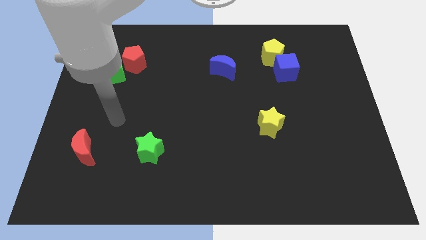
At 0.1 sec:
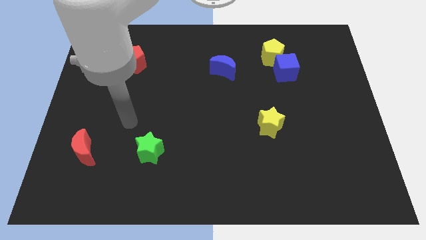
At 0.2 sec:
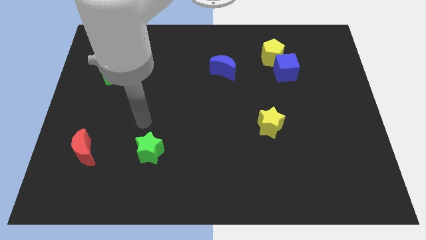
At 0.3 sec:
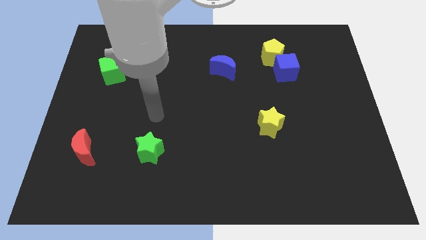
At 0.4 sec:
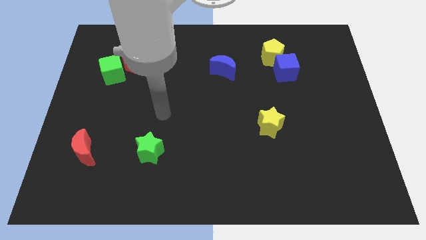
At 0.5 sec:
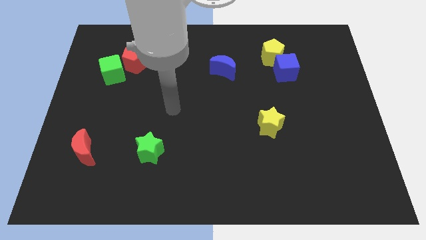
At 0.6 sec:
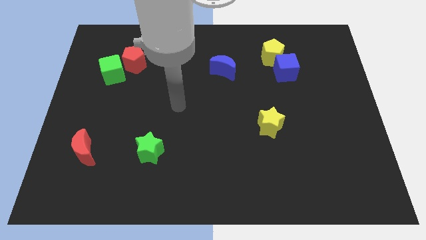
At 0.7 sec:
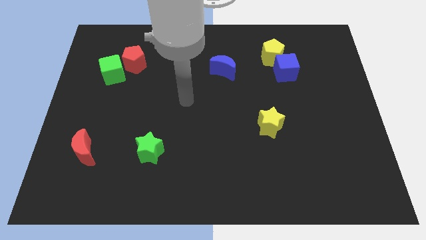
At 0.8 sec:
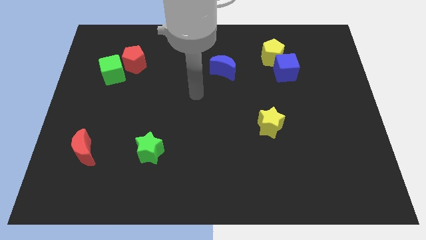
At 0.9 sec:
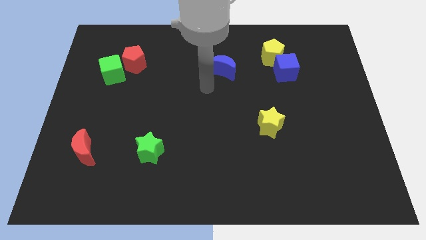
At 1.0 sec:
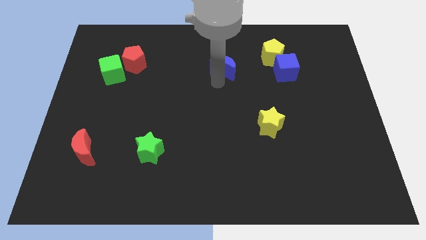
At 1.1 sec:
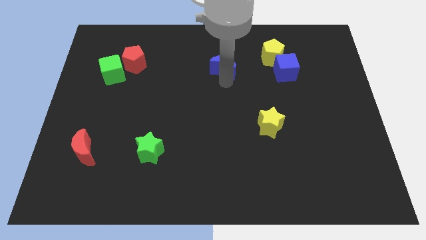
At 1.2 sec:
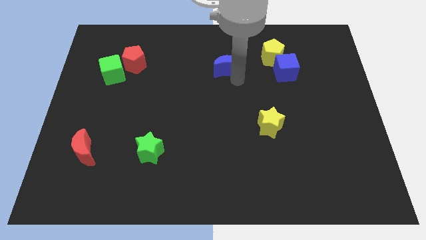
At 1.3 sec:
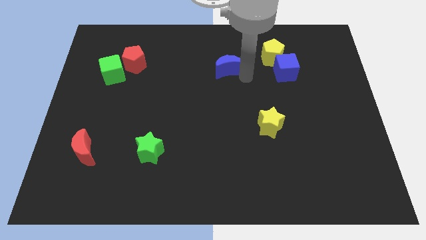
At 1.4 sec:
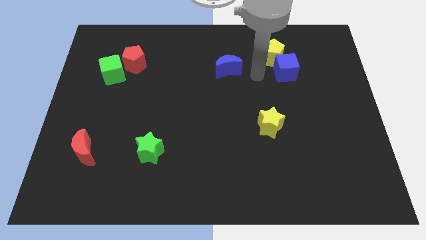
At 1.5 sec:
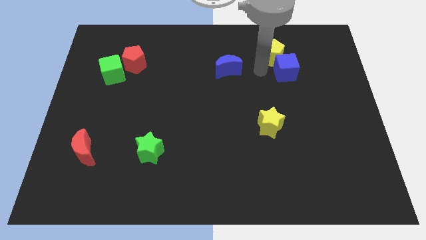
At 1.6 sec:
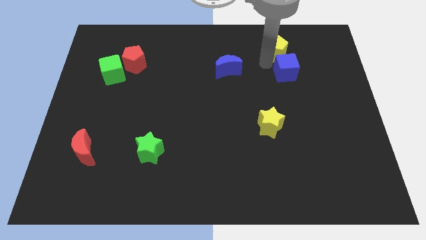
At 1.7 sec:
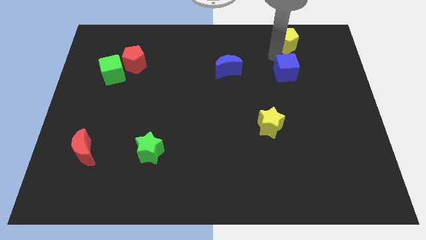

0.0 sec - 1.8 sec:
separate the blue cube from the yellow pentagon

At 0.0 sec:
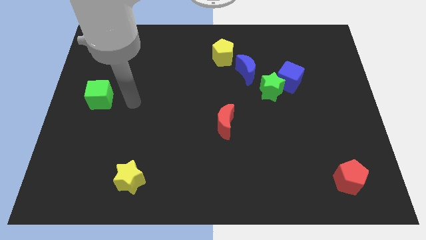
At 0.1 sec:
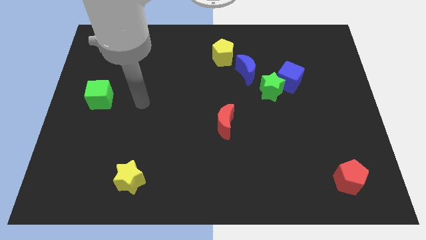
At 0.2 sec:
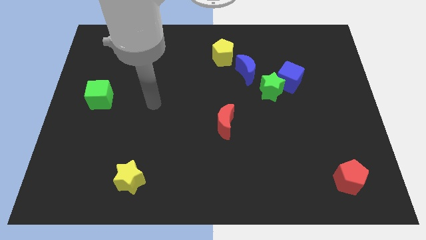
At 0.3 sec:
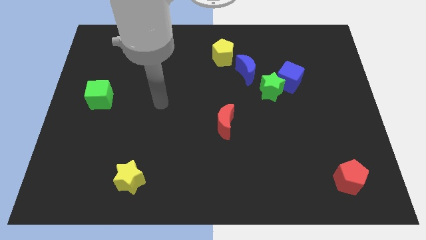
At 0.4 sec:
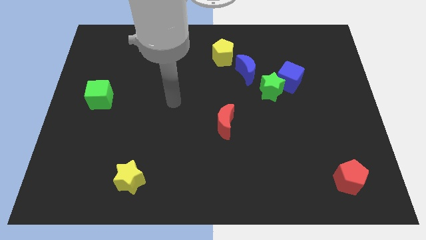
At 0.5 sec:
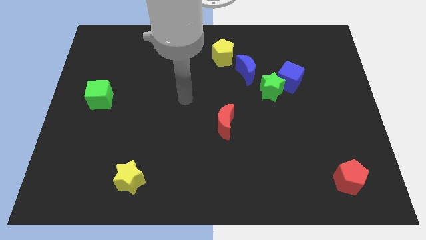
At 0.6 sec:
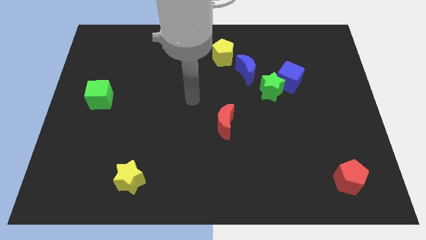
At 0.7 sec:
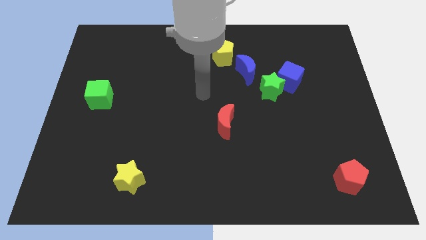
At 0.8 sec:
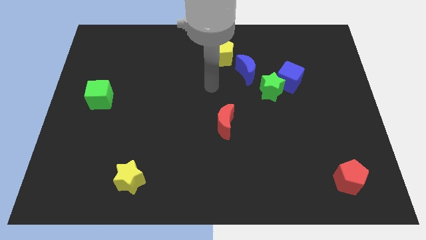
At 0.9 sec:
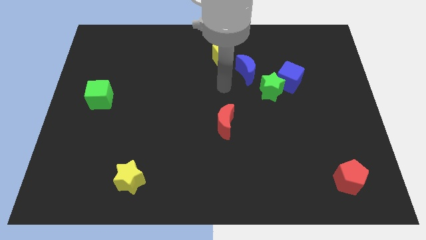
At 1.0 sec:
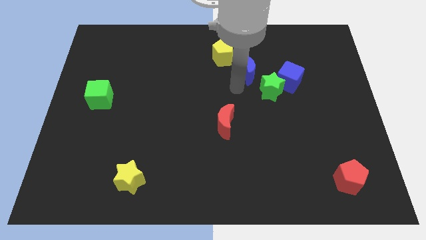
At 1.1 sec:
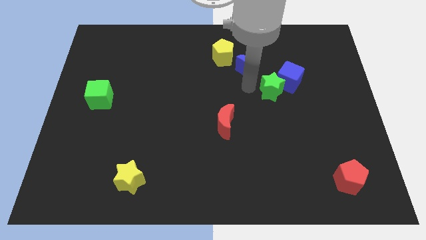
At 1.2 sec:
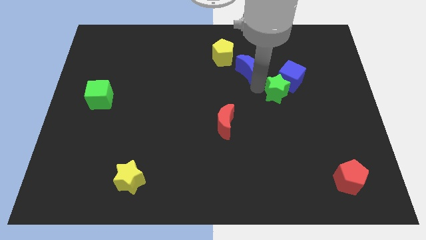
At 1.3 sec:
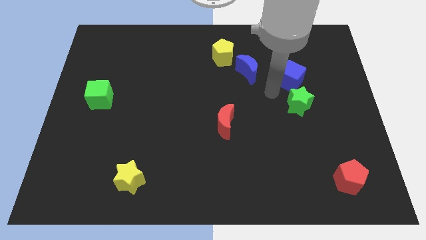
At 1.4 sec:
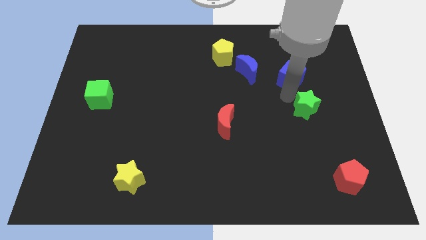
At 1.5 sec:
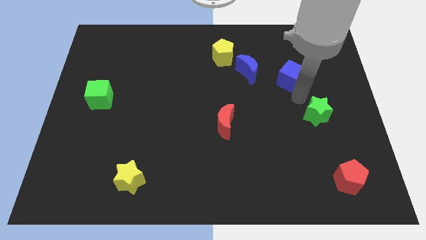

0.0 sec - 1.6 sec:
move the blue cube away from the green star

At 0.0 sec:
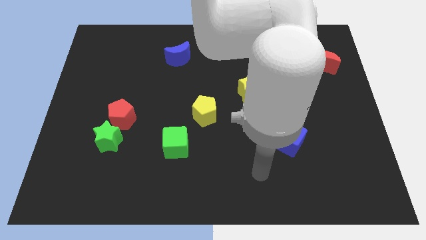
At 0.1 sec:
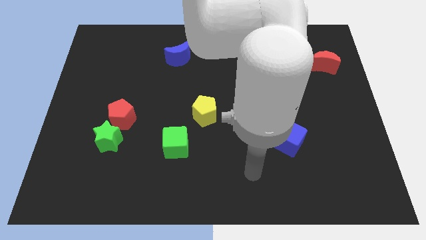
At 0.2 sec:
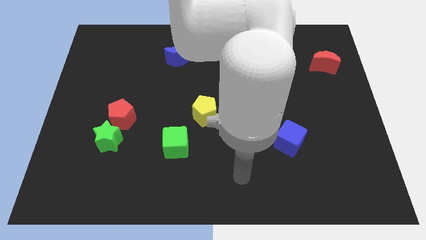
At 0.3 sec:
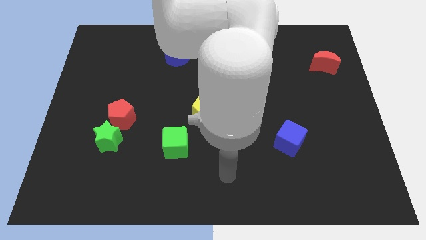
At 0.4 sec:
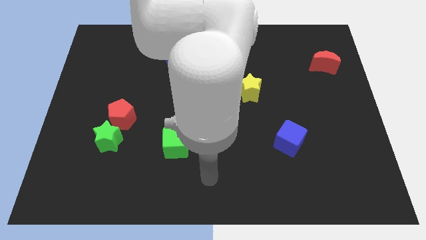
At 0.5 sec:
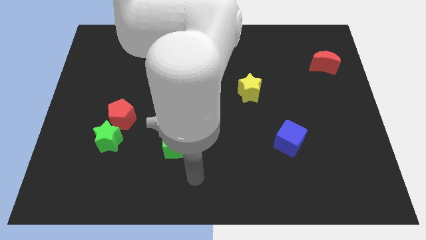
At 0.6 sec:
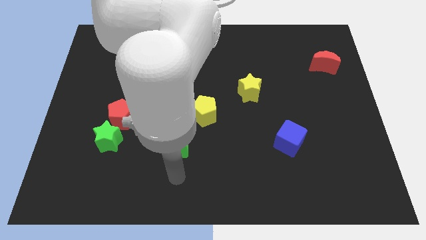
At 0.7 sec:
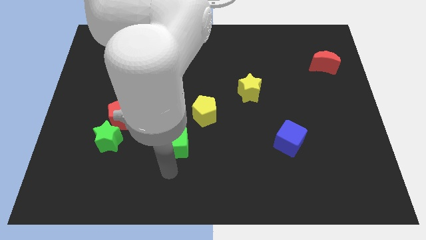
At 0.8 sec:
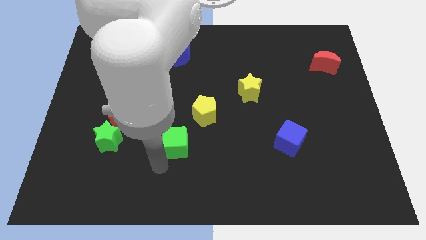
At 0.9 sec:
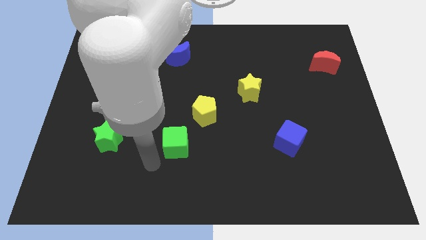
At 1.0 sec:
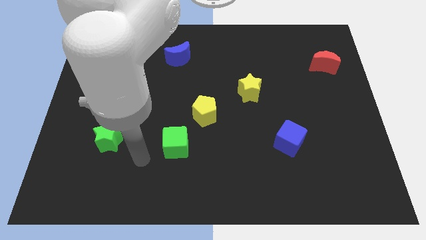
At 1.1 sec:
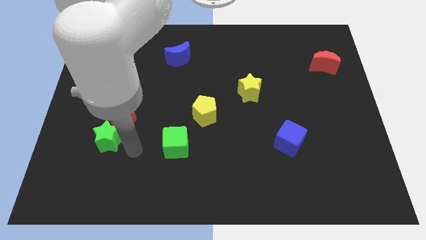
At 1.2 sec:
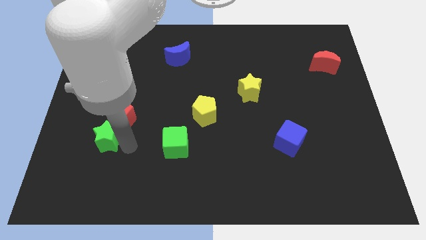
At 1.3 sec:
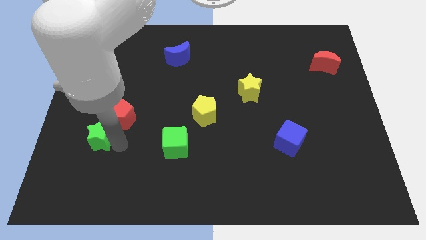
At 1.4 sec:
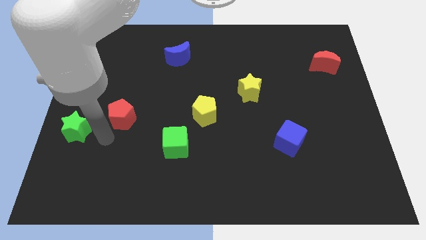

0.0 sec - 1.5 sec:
pull the red pentagon apart from the green star

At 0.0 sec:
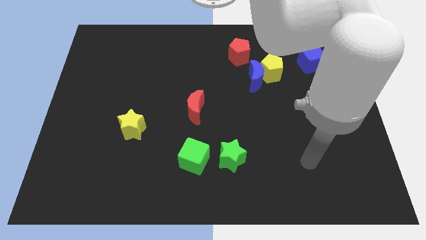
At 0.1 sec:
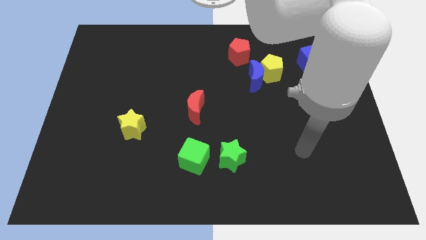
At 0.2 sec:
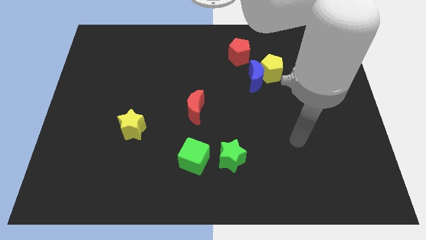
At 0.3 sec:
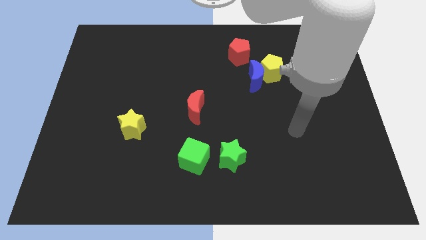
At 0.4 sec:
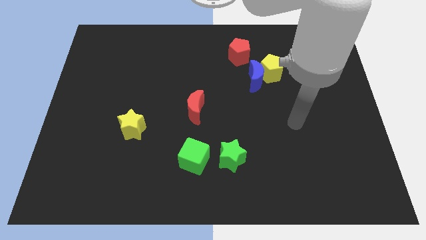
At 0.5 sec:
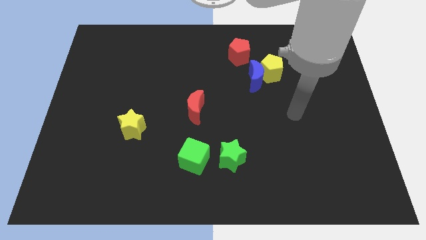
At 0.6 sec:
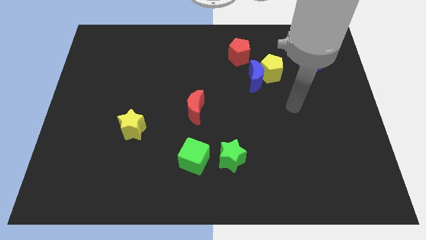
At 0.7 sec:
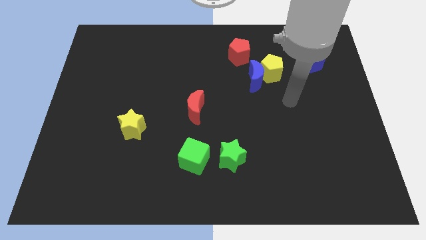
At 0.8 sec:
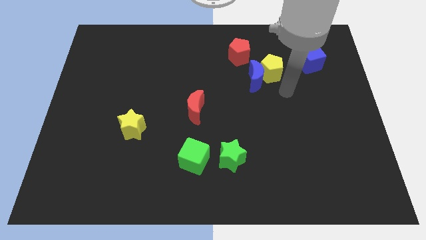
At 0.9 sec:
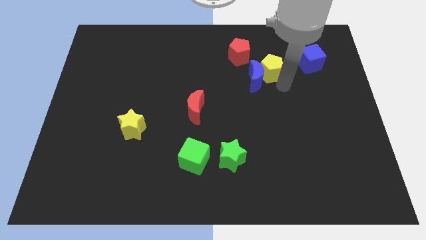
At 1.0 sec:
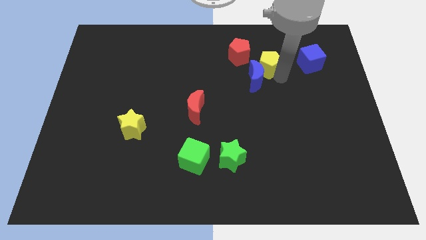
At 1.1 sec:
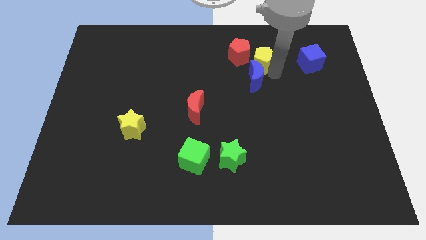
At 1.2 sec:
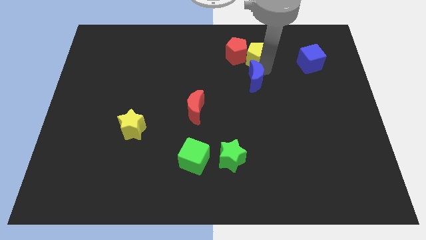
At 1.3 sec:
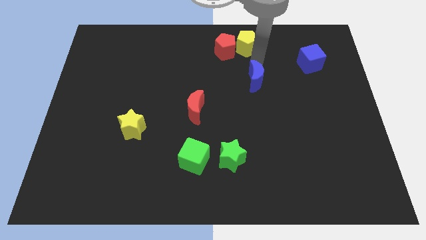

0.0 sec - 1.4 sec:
pull the blue moon apart from the yellow pentagon and red pentagon

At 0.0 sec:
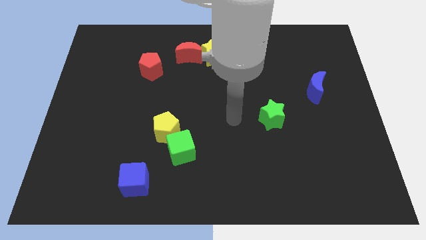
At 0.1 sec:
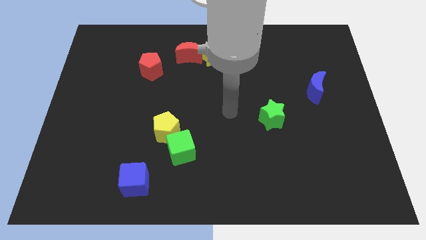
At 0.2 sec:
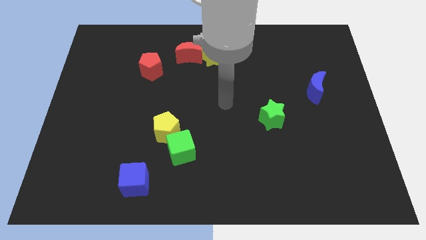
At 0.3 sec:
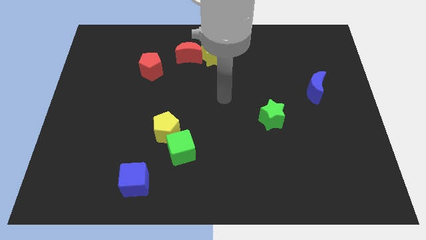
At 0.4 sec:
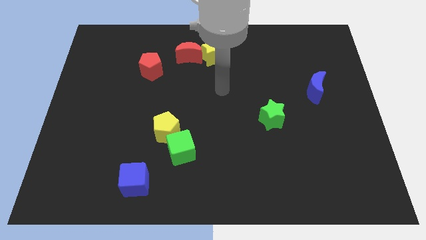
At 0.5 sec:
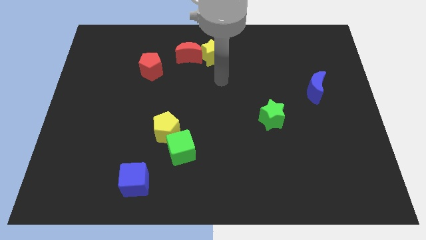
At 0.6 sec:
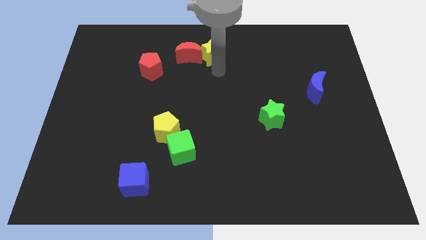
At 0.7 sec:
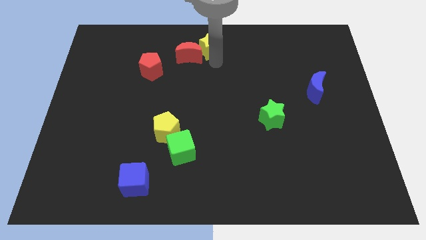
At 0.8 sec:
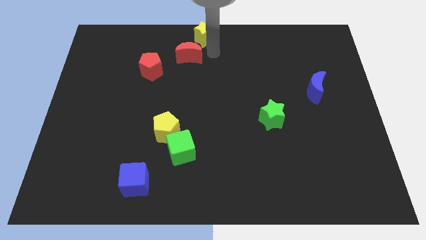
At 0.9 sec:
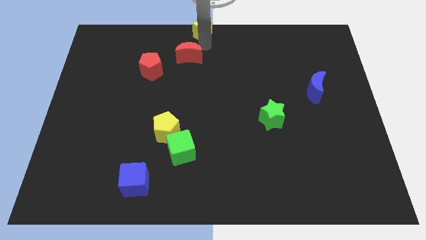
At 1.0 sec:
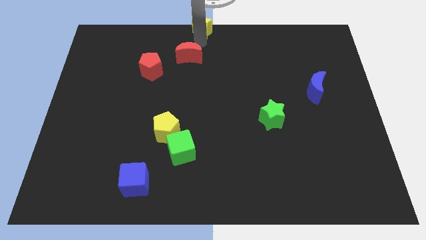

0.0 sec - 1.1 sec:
pull the red moon apart from the yellow star

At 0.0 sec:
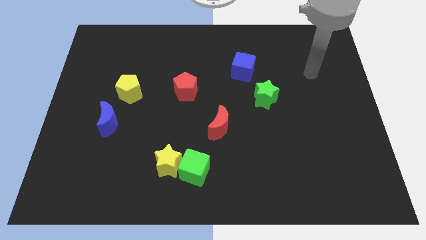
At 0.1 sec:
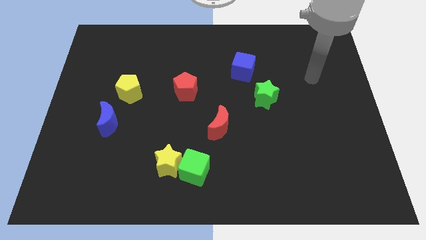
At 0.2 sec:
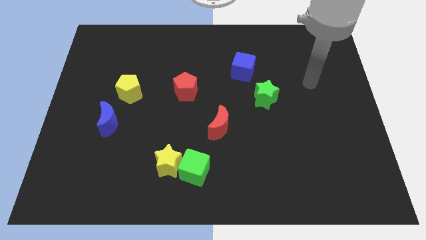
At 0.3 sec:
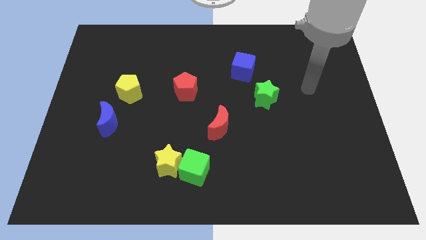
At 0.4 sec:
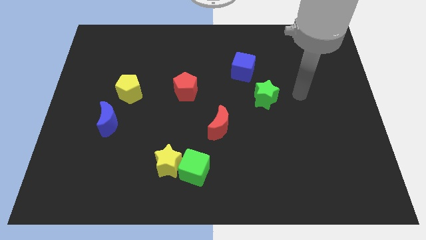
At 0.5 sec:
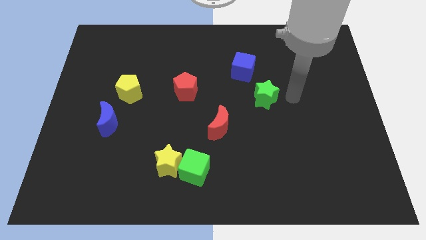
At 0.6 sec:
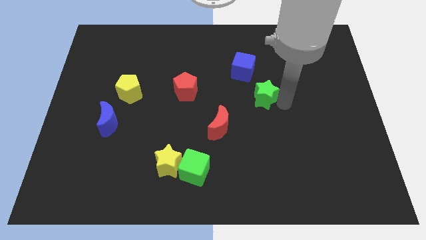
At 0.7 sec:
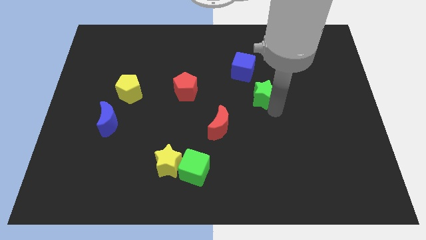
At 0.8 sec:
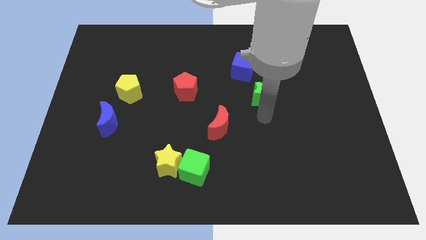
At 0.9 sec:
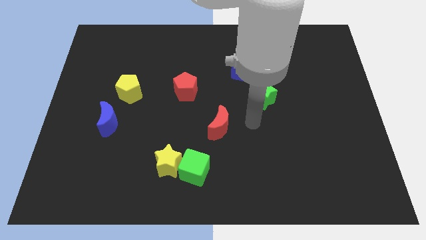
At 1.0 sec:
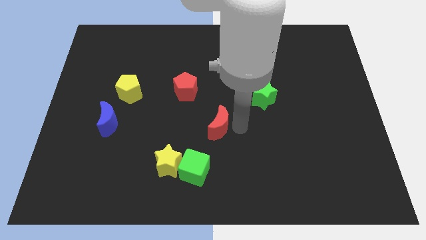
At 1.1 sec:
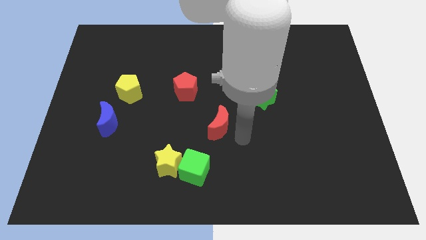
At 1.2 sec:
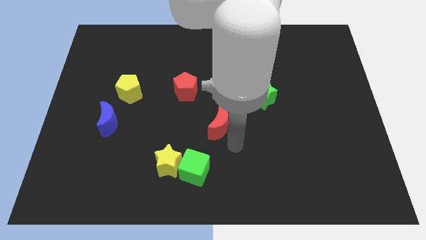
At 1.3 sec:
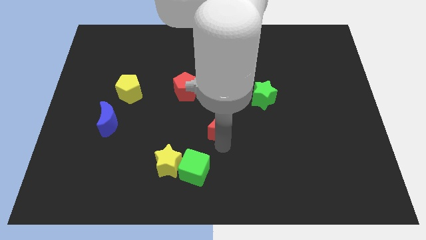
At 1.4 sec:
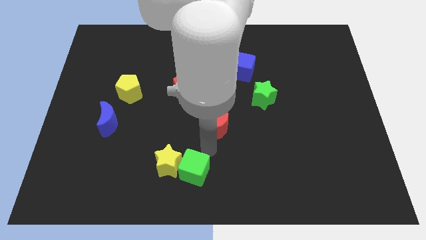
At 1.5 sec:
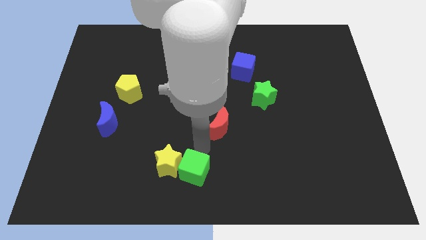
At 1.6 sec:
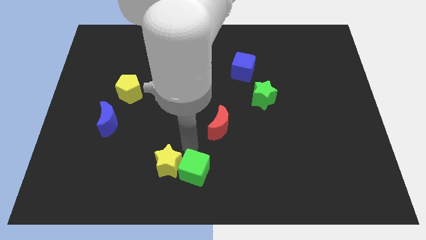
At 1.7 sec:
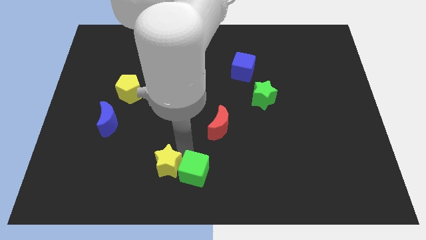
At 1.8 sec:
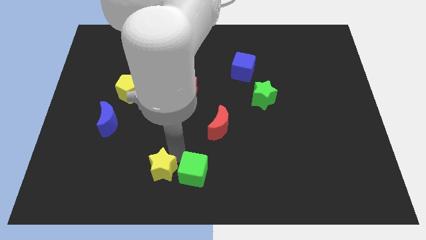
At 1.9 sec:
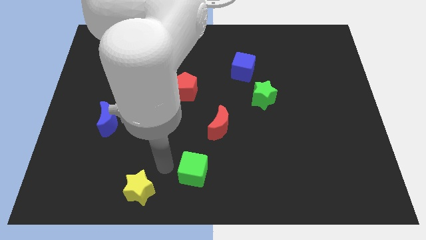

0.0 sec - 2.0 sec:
pull the green cube apart from the yellow star
